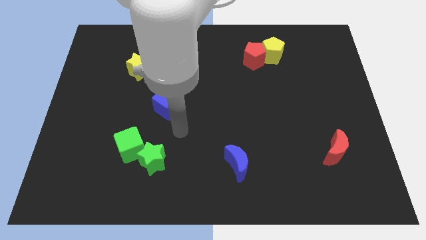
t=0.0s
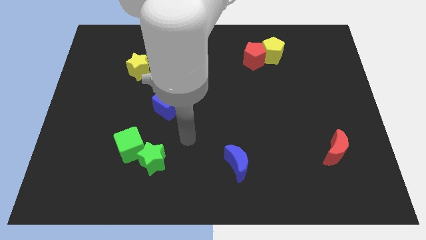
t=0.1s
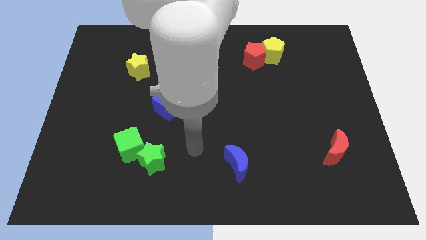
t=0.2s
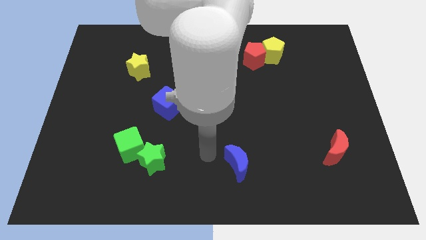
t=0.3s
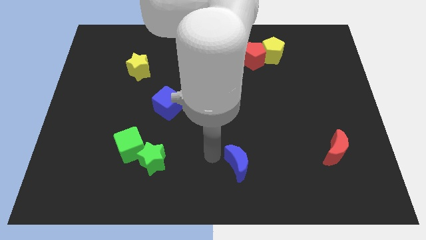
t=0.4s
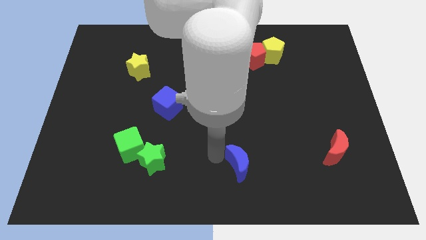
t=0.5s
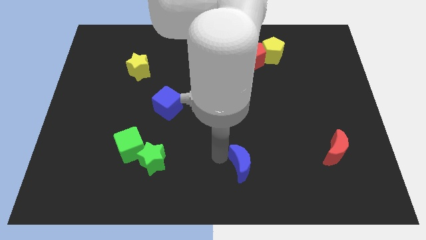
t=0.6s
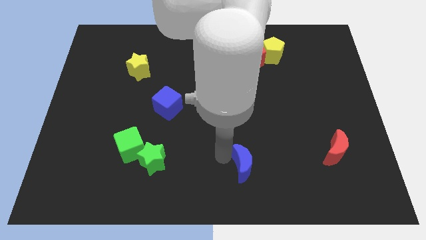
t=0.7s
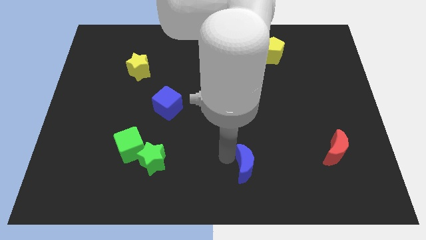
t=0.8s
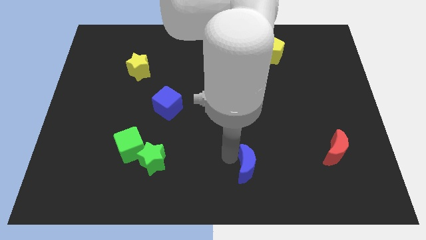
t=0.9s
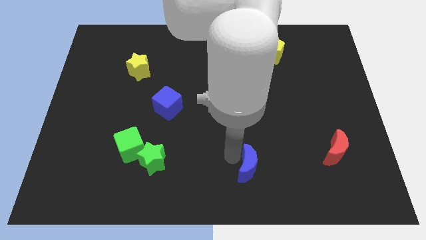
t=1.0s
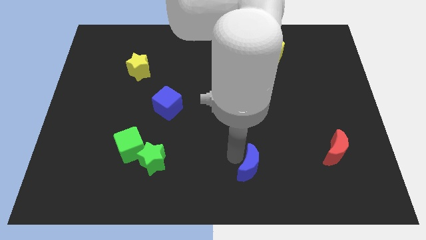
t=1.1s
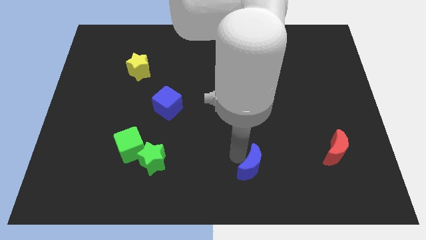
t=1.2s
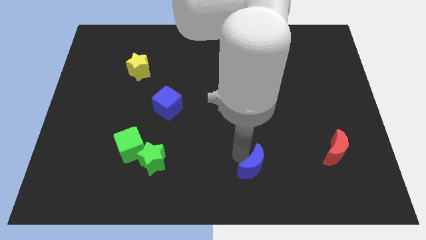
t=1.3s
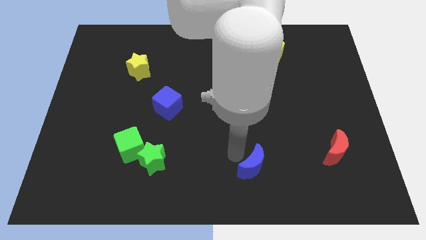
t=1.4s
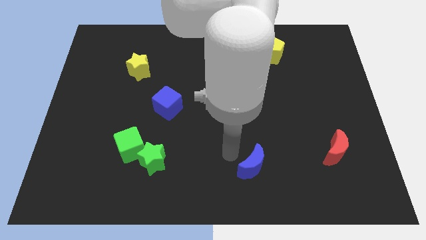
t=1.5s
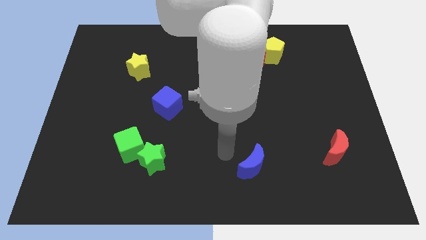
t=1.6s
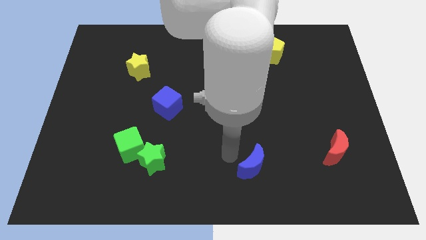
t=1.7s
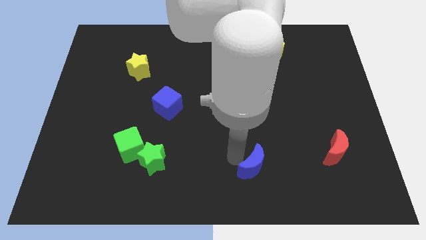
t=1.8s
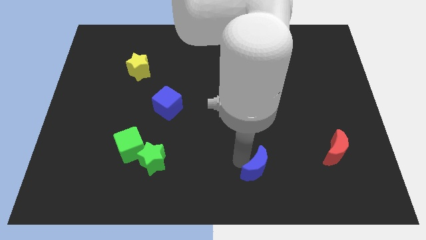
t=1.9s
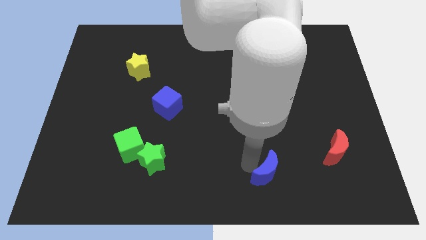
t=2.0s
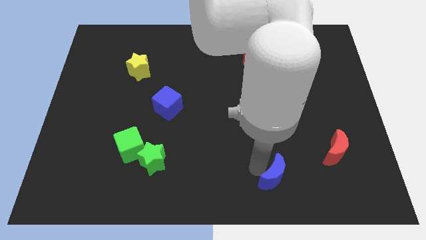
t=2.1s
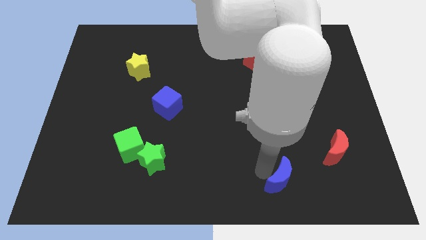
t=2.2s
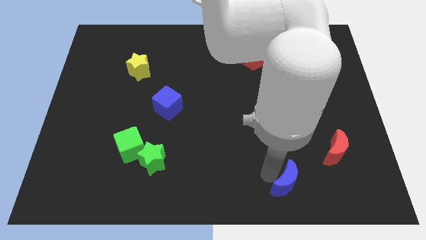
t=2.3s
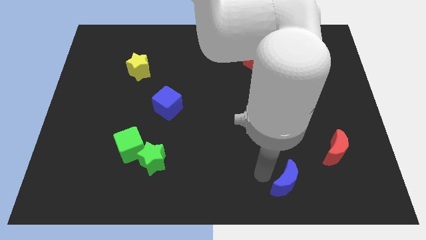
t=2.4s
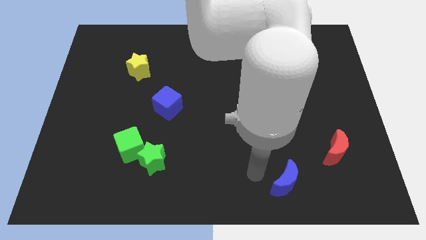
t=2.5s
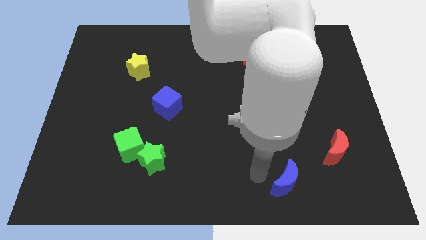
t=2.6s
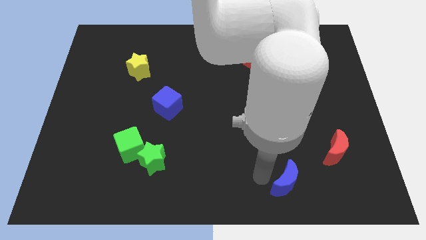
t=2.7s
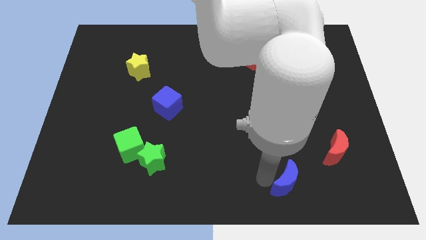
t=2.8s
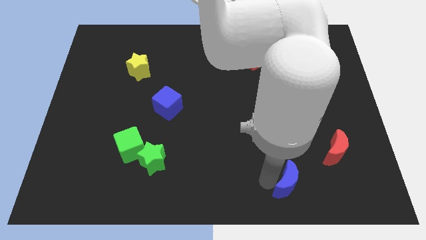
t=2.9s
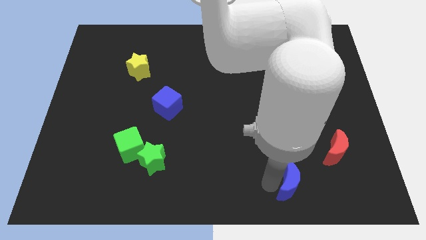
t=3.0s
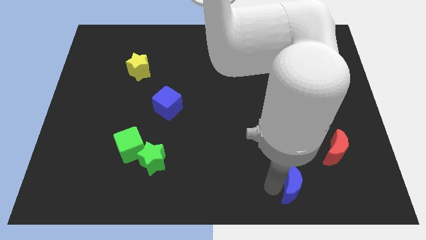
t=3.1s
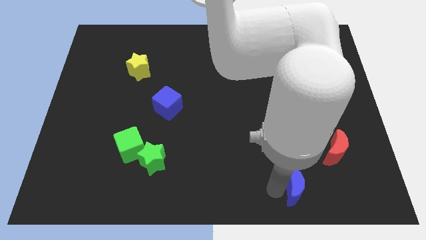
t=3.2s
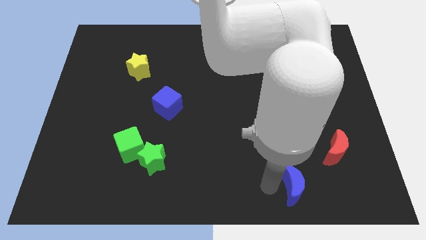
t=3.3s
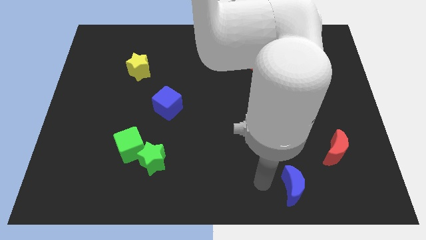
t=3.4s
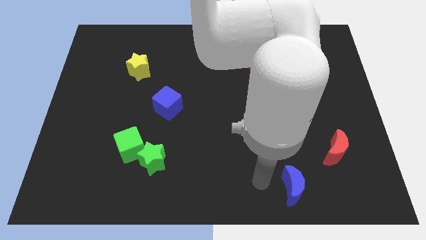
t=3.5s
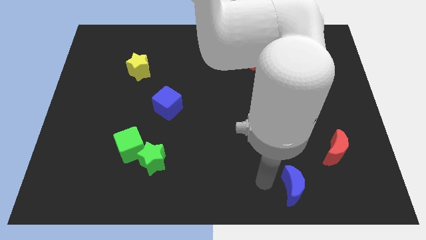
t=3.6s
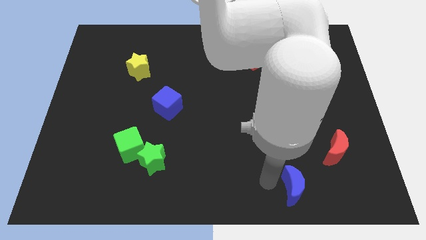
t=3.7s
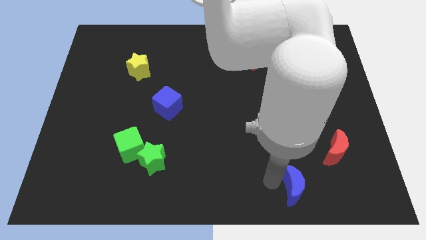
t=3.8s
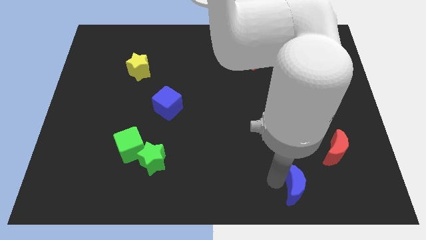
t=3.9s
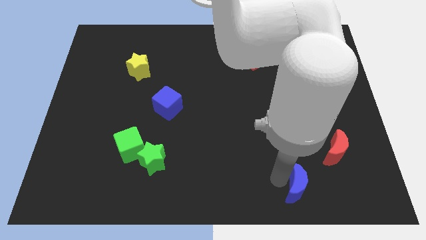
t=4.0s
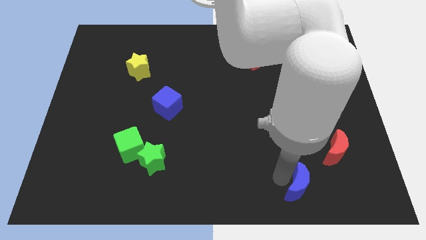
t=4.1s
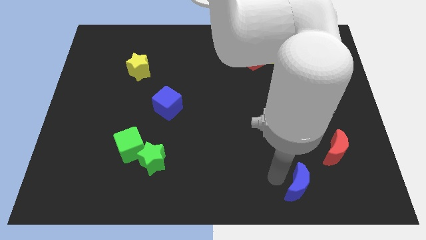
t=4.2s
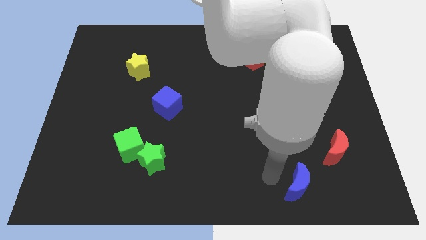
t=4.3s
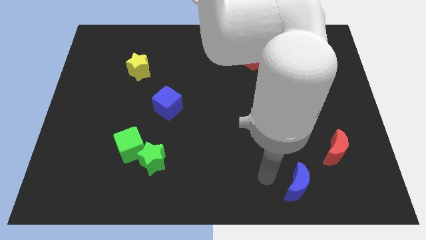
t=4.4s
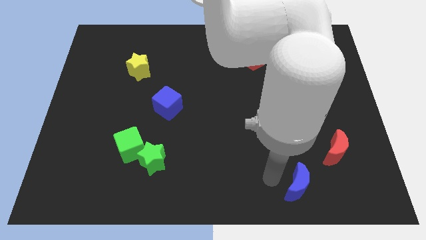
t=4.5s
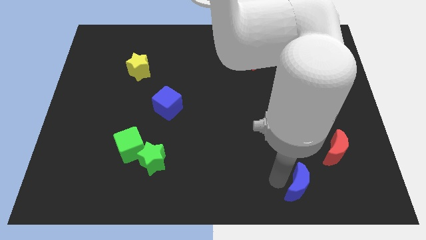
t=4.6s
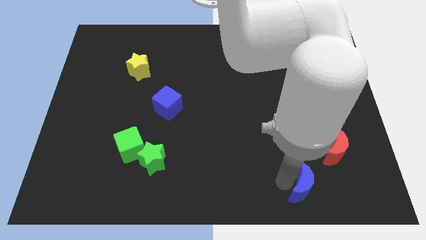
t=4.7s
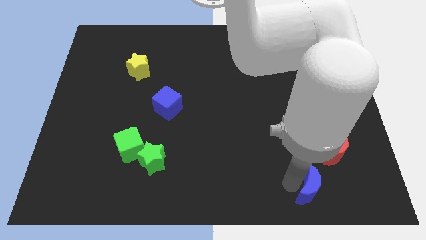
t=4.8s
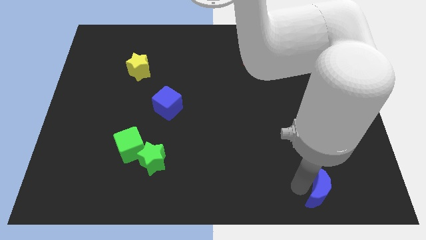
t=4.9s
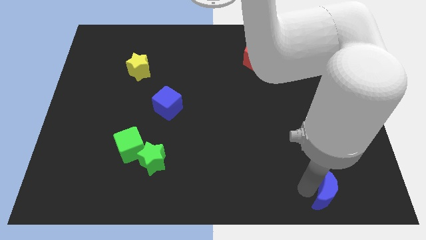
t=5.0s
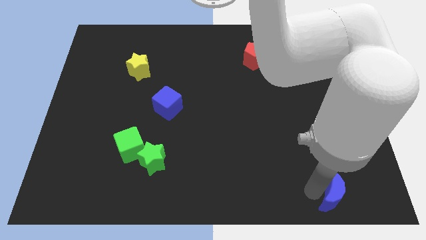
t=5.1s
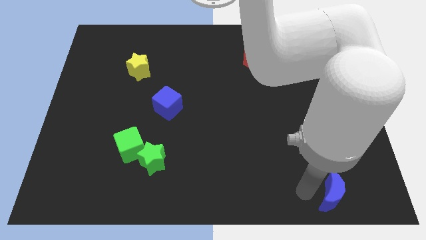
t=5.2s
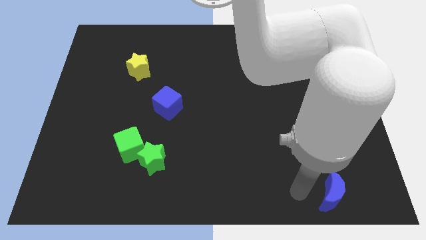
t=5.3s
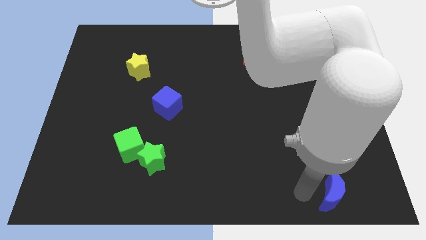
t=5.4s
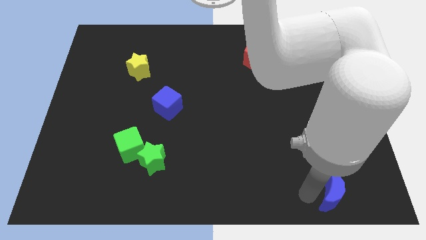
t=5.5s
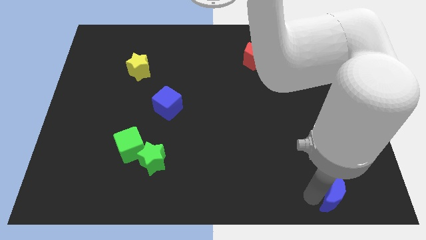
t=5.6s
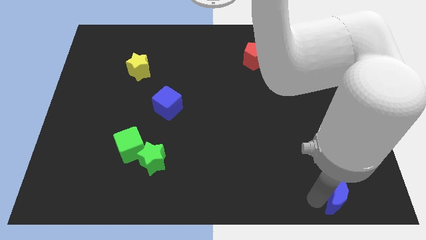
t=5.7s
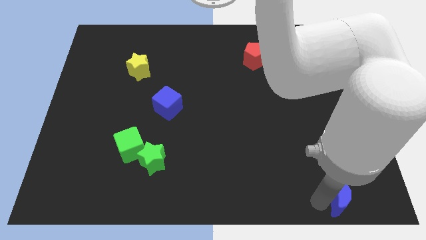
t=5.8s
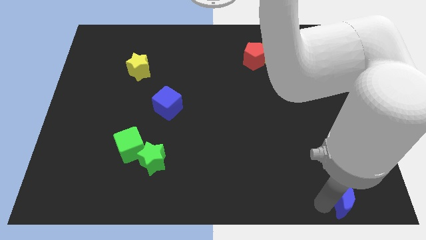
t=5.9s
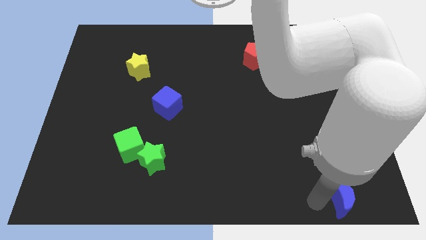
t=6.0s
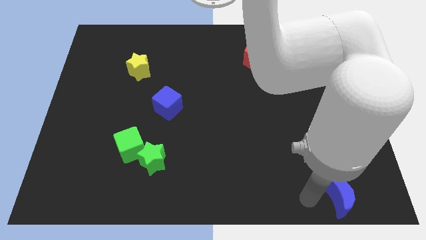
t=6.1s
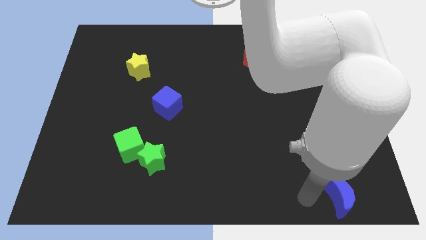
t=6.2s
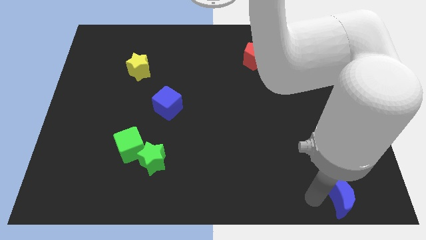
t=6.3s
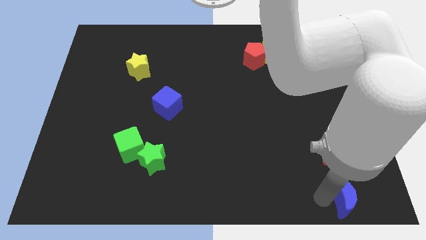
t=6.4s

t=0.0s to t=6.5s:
slide the blue moon to the bottom right corner
